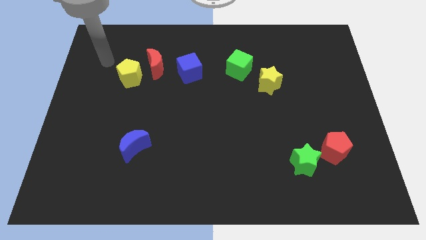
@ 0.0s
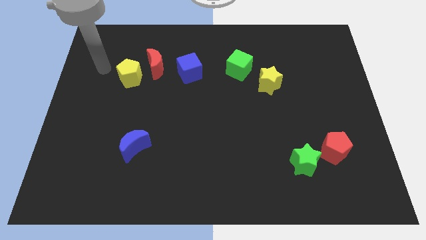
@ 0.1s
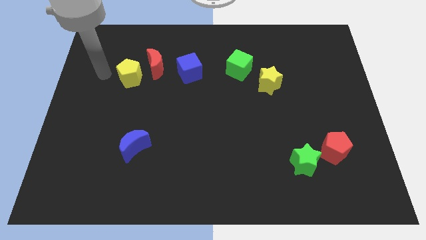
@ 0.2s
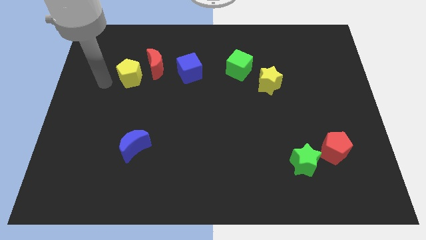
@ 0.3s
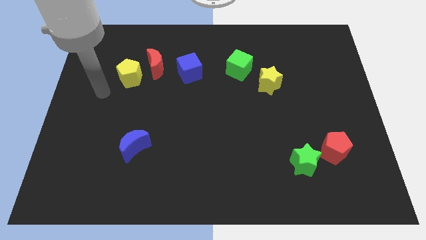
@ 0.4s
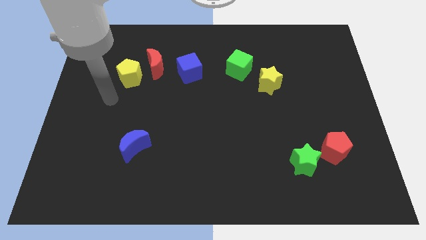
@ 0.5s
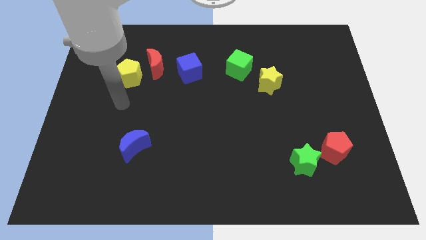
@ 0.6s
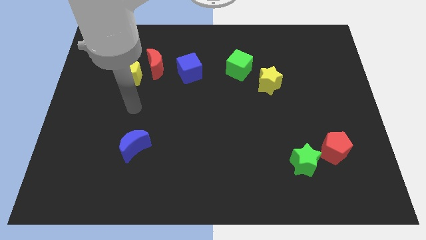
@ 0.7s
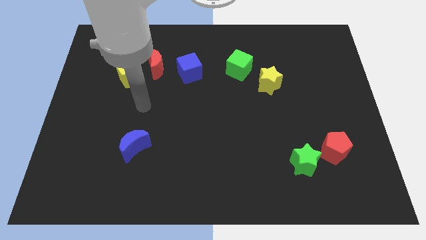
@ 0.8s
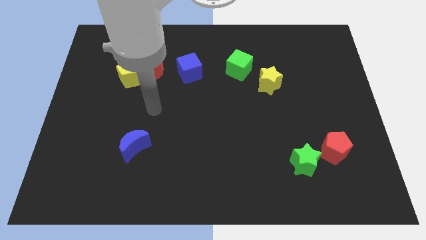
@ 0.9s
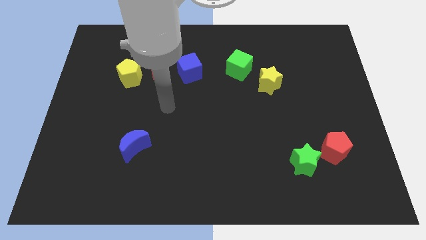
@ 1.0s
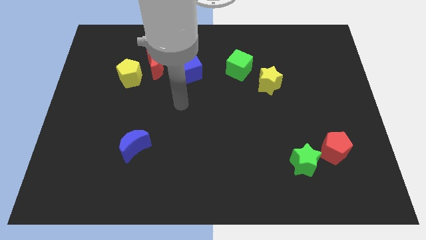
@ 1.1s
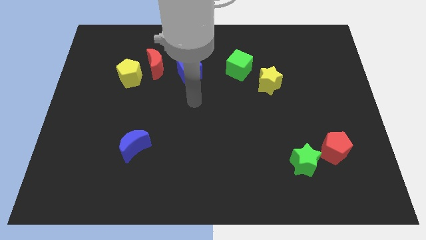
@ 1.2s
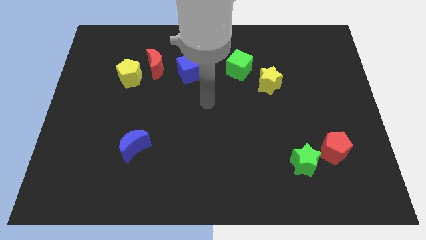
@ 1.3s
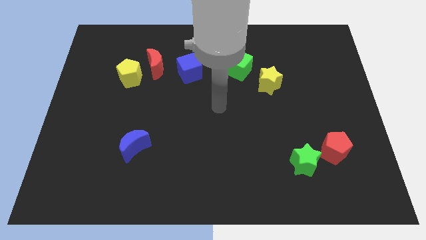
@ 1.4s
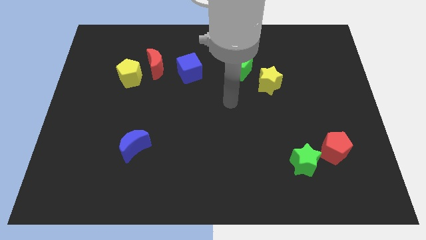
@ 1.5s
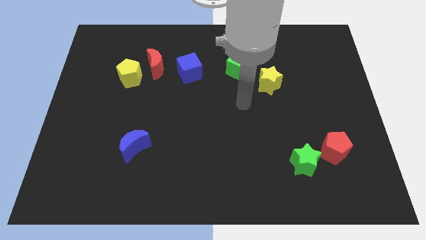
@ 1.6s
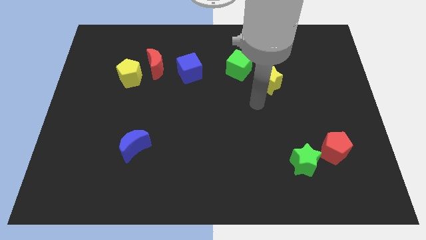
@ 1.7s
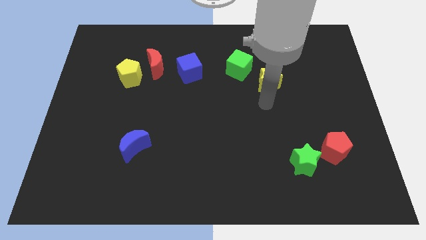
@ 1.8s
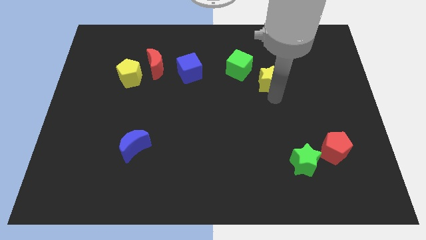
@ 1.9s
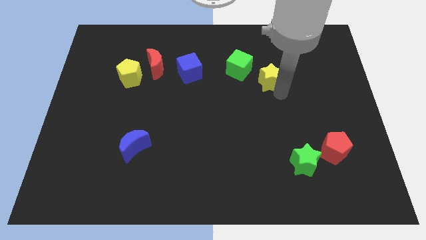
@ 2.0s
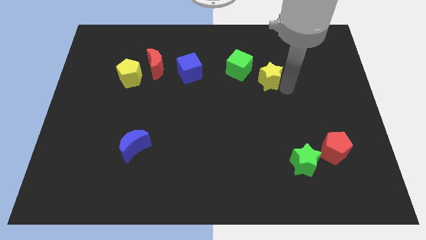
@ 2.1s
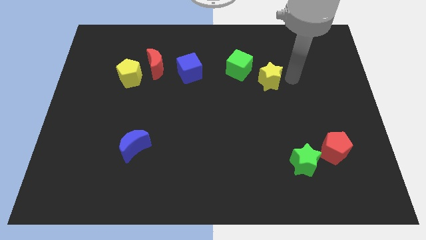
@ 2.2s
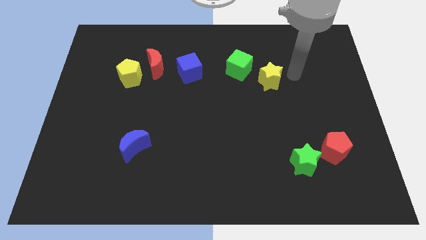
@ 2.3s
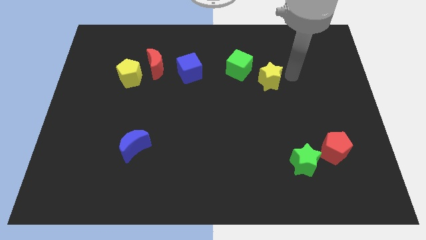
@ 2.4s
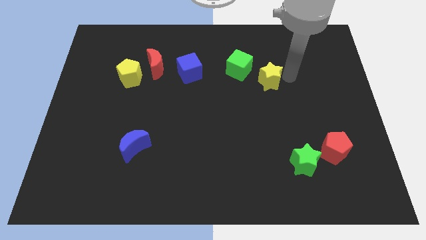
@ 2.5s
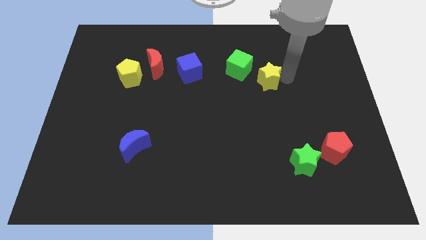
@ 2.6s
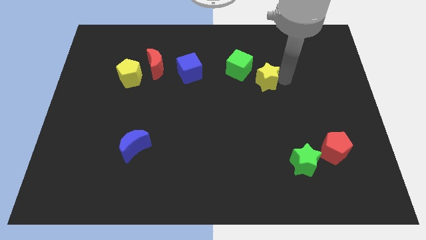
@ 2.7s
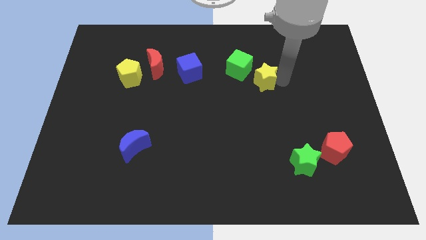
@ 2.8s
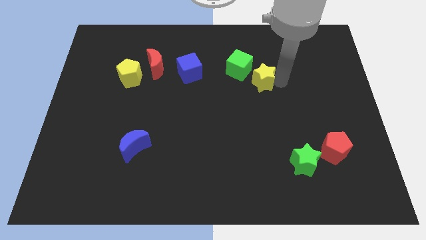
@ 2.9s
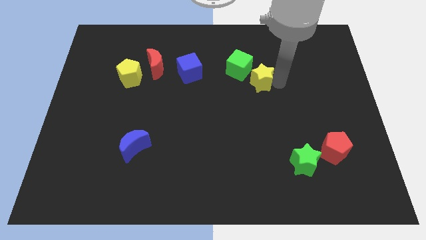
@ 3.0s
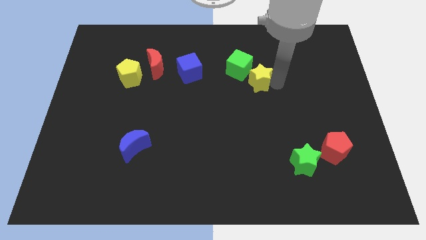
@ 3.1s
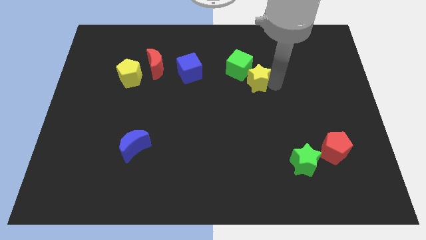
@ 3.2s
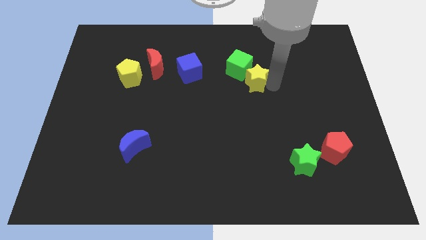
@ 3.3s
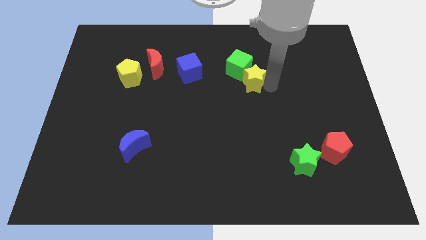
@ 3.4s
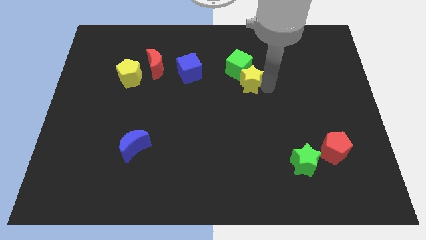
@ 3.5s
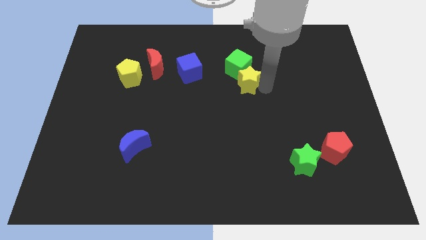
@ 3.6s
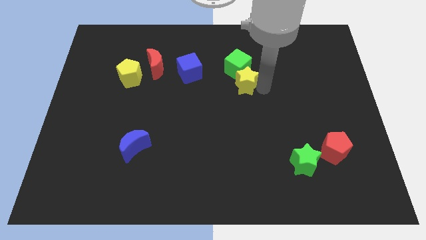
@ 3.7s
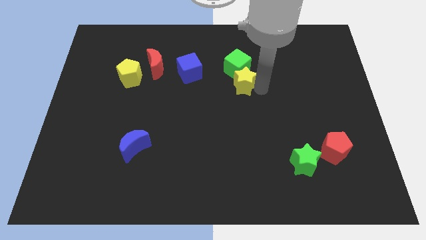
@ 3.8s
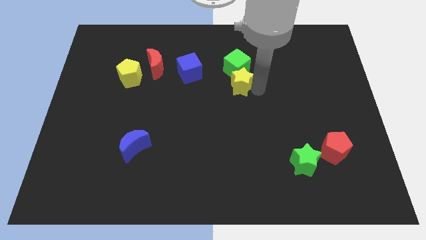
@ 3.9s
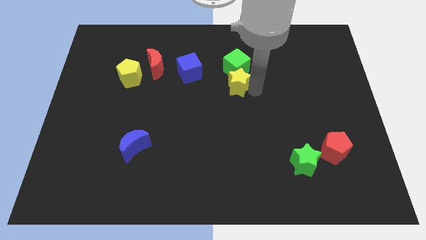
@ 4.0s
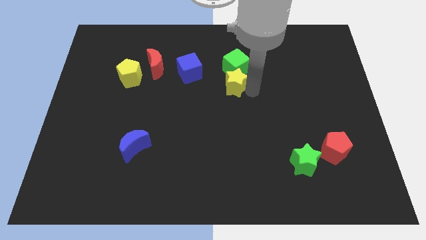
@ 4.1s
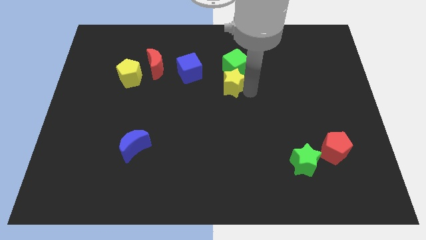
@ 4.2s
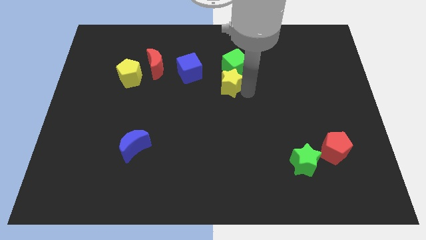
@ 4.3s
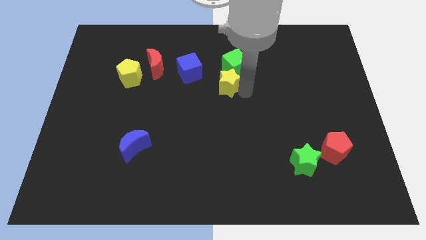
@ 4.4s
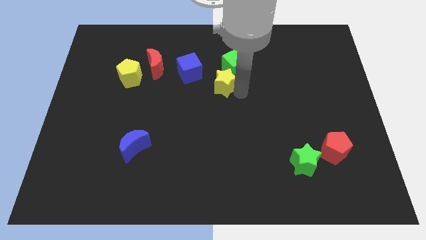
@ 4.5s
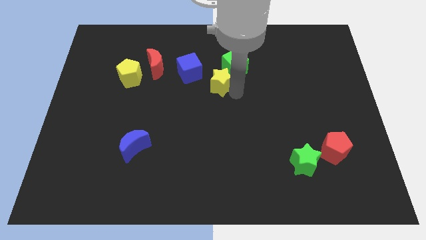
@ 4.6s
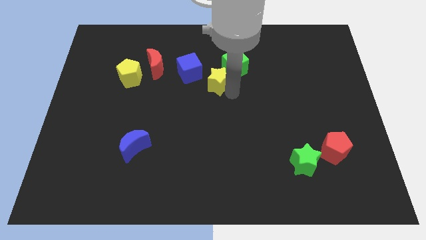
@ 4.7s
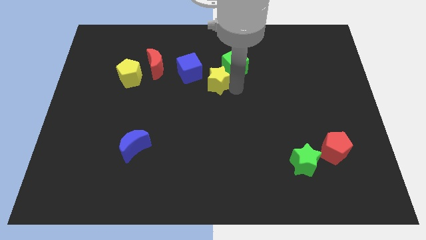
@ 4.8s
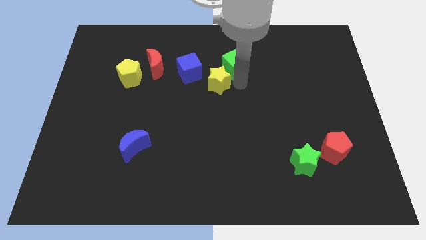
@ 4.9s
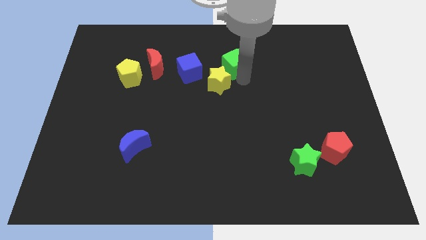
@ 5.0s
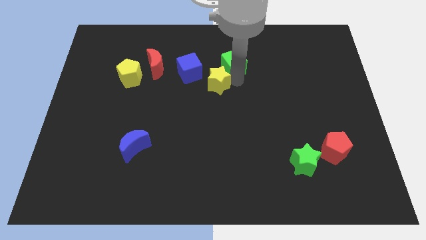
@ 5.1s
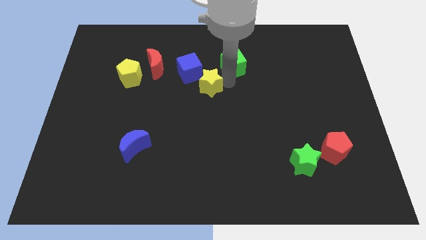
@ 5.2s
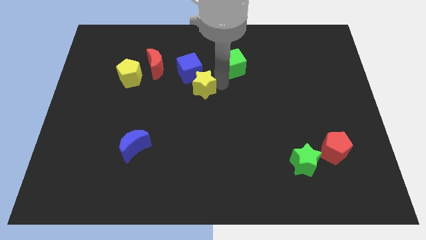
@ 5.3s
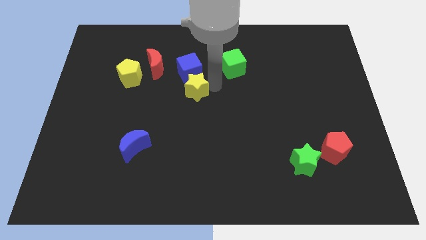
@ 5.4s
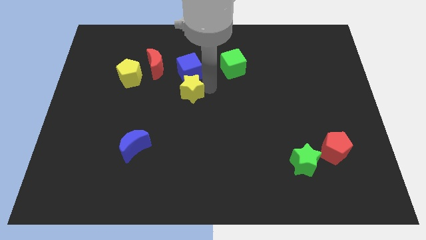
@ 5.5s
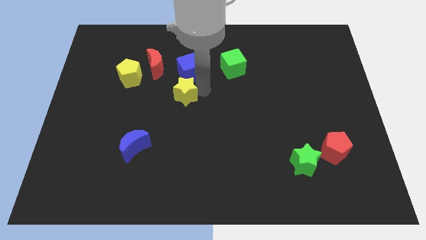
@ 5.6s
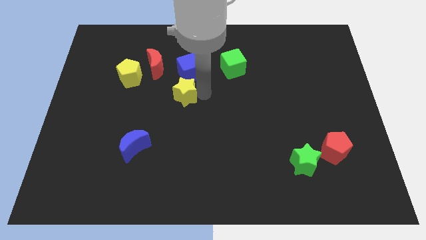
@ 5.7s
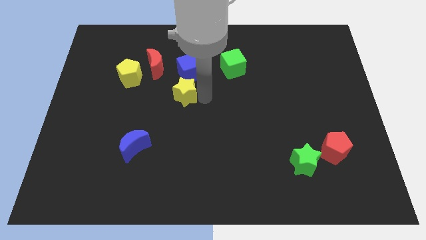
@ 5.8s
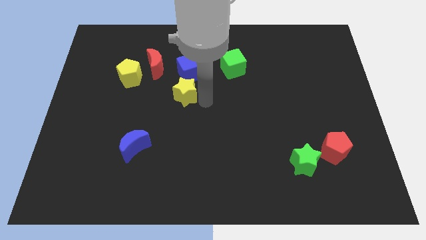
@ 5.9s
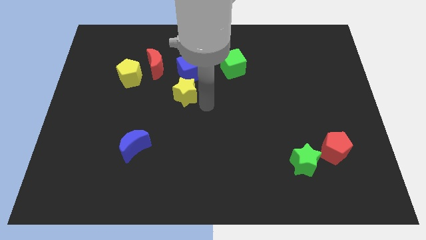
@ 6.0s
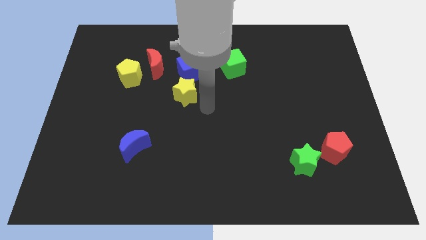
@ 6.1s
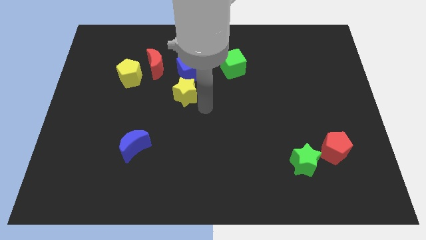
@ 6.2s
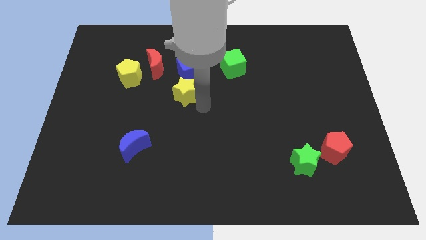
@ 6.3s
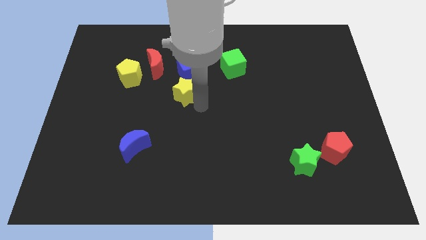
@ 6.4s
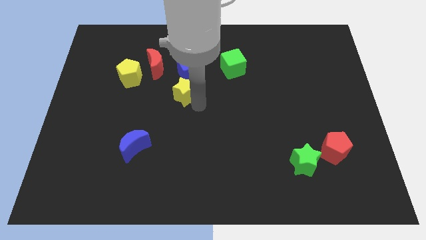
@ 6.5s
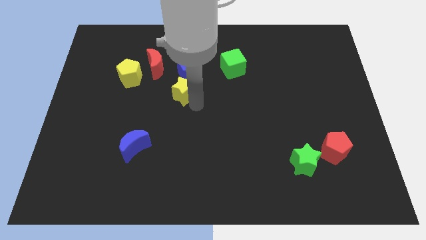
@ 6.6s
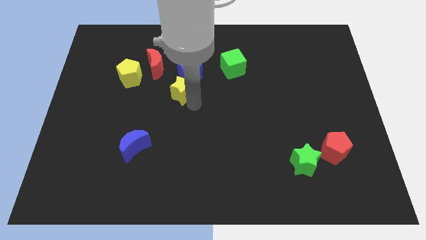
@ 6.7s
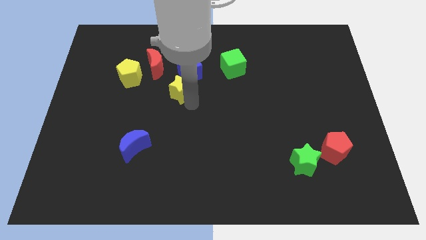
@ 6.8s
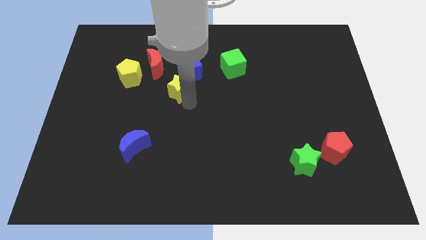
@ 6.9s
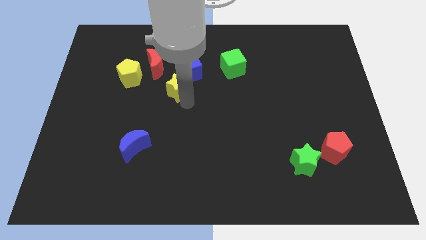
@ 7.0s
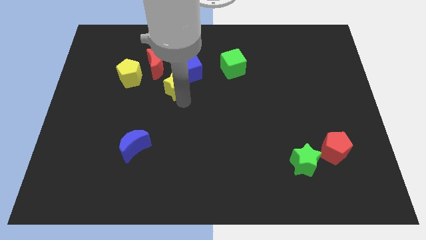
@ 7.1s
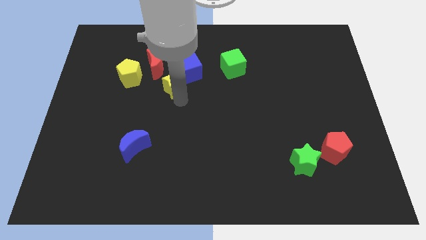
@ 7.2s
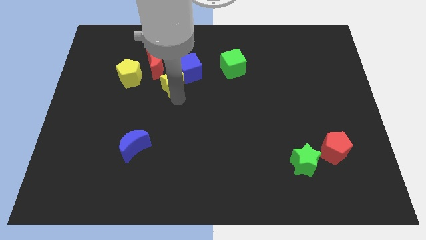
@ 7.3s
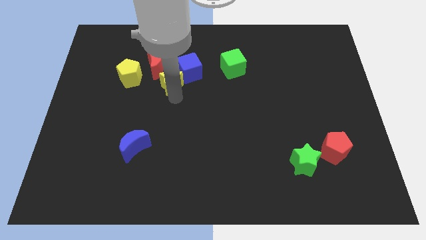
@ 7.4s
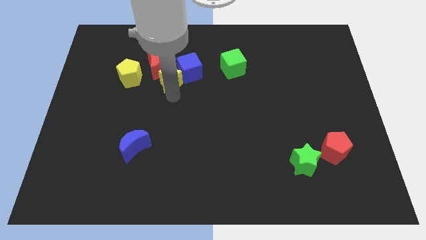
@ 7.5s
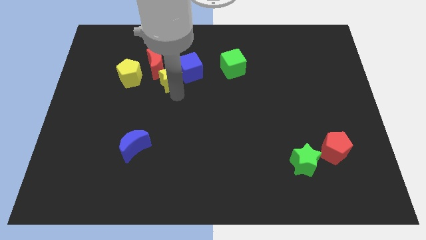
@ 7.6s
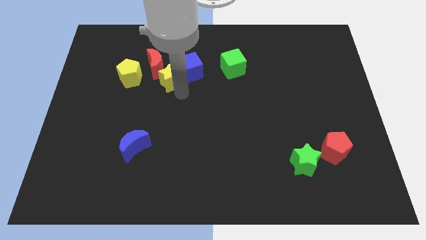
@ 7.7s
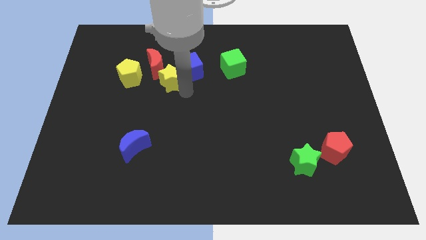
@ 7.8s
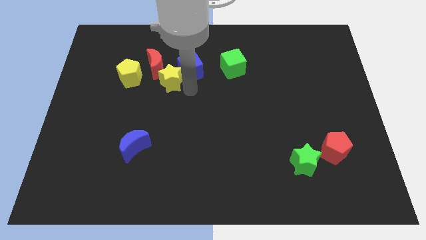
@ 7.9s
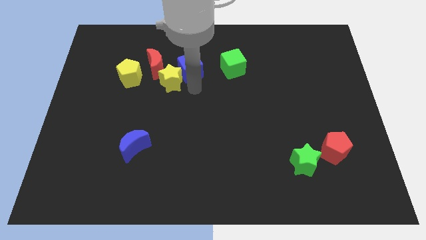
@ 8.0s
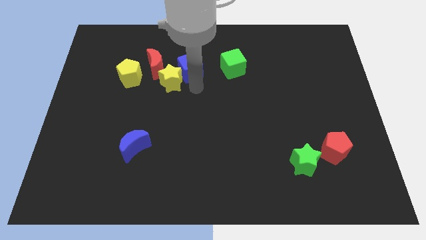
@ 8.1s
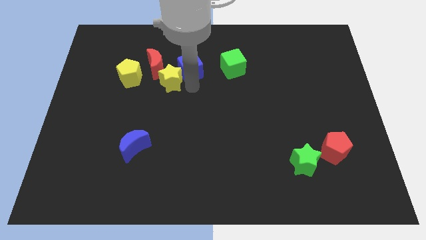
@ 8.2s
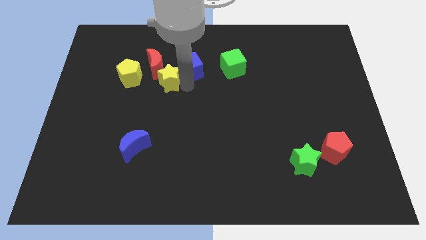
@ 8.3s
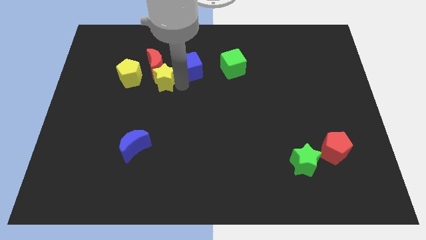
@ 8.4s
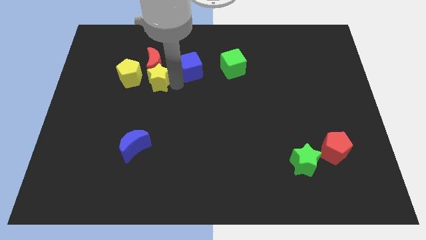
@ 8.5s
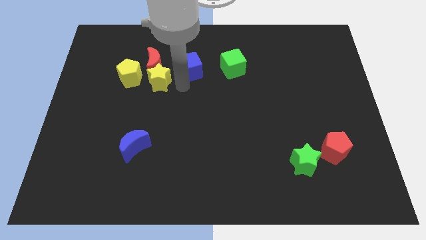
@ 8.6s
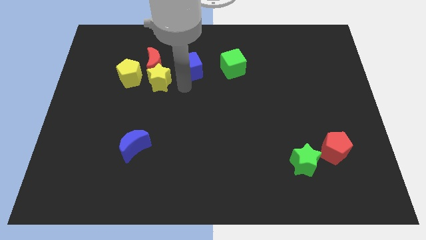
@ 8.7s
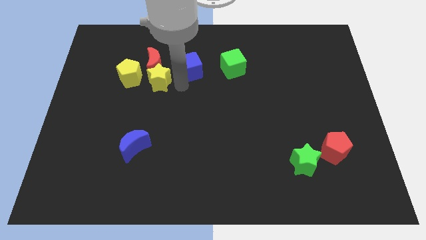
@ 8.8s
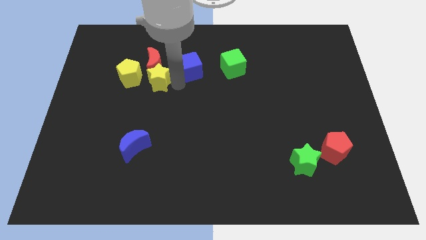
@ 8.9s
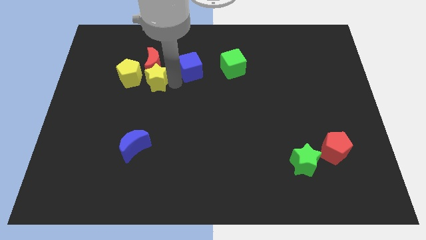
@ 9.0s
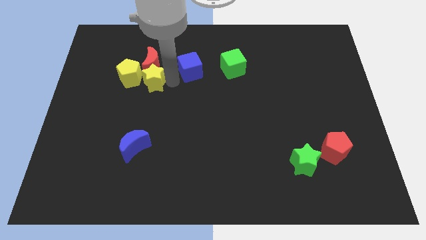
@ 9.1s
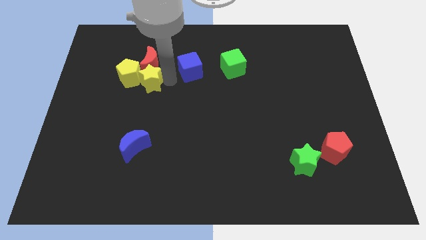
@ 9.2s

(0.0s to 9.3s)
put the yellow star to the yellow pentagon
